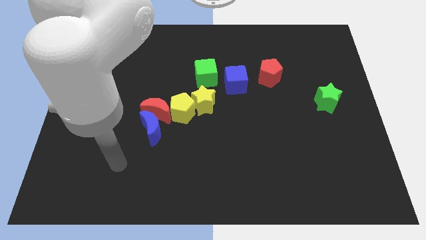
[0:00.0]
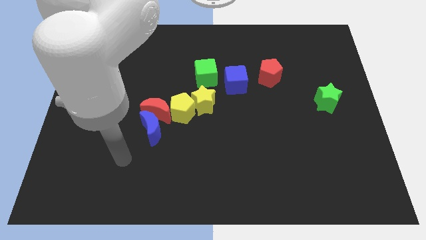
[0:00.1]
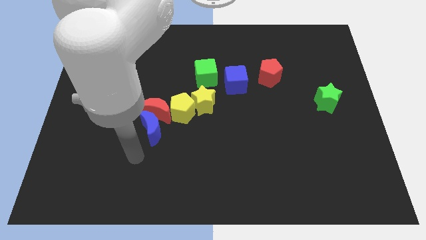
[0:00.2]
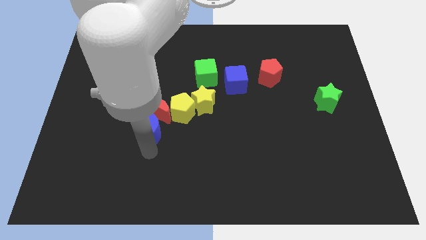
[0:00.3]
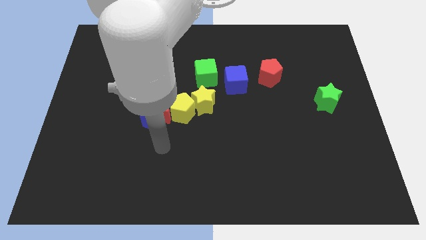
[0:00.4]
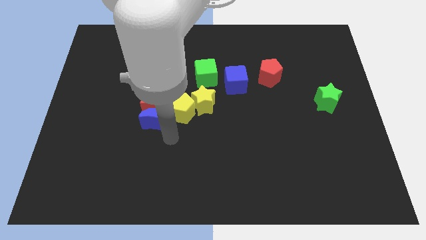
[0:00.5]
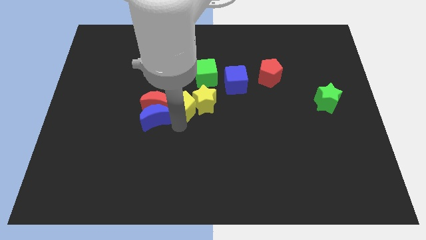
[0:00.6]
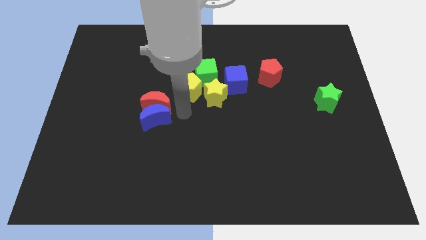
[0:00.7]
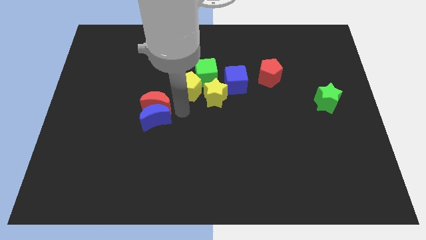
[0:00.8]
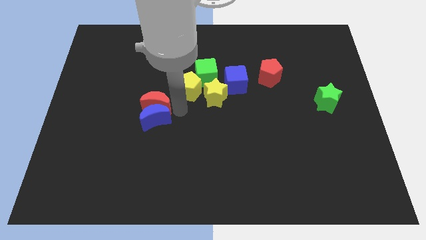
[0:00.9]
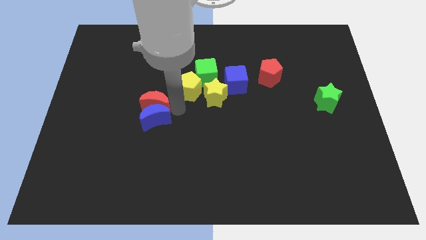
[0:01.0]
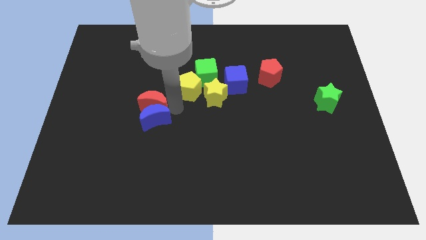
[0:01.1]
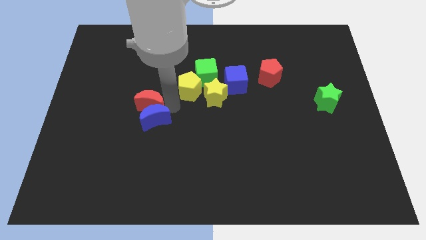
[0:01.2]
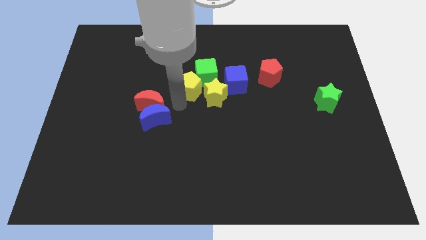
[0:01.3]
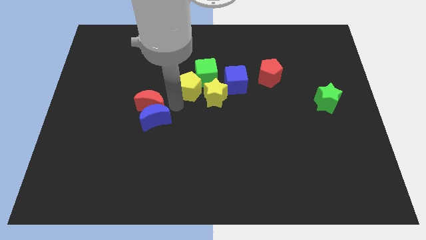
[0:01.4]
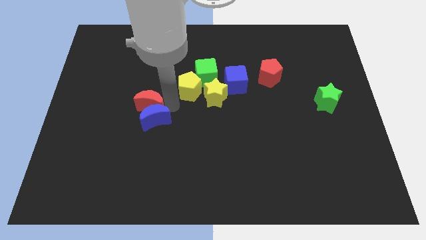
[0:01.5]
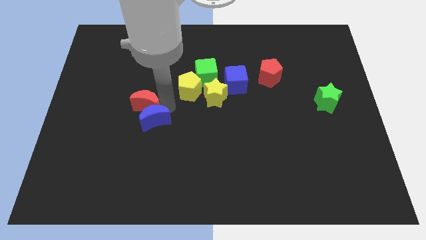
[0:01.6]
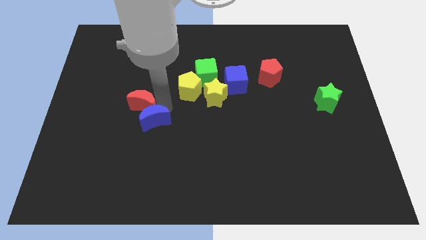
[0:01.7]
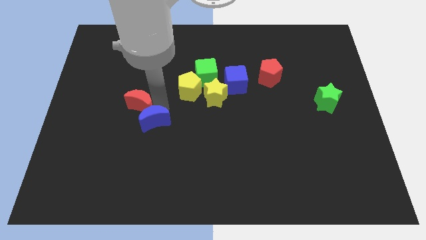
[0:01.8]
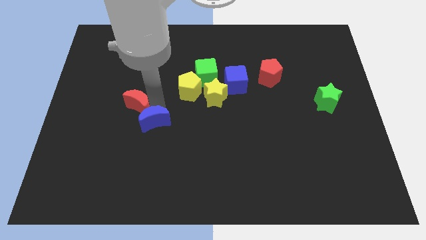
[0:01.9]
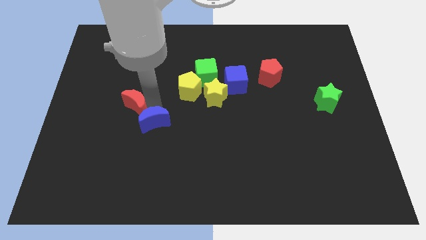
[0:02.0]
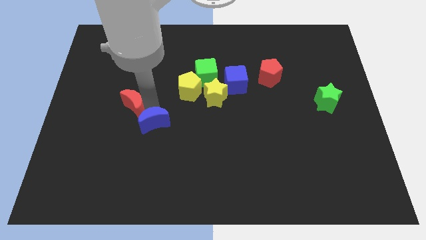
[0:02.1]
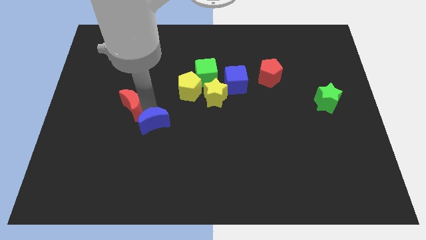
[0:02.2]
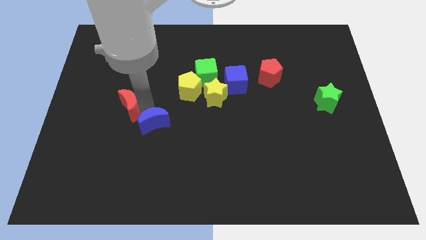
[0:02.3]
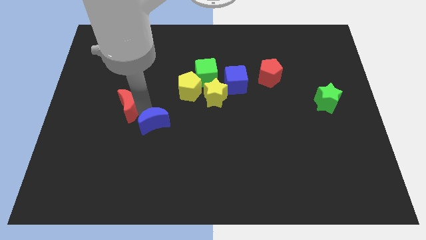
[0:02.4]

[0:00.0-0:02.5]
separate the red moon from the blue moon and yellow pentagon

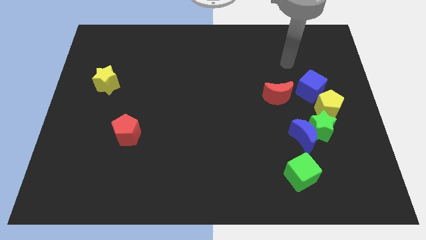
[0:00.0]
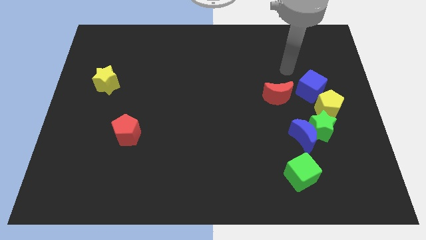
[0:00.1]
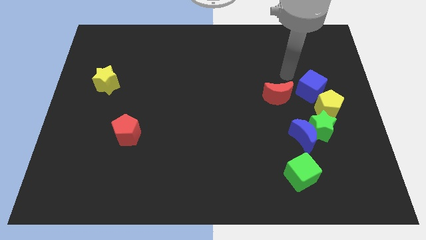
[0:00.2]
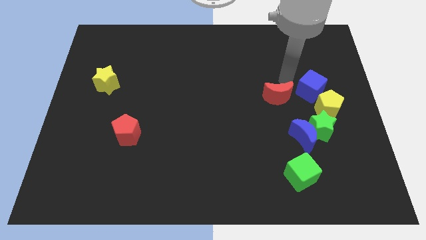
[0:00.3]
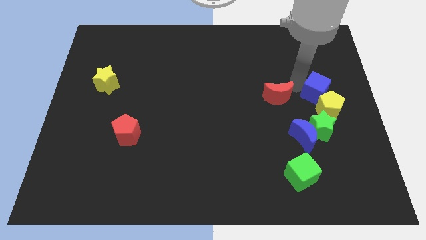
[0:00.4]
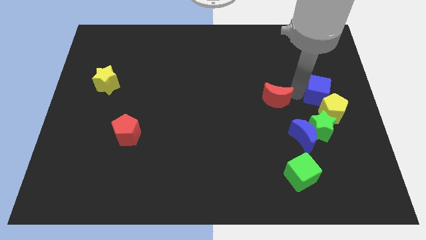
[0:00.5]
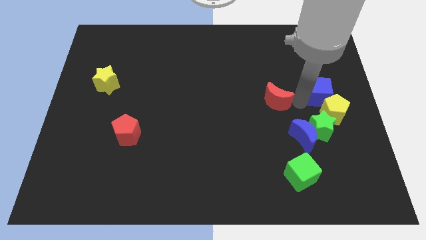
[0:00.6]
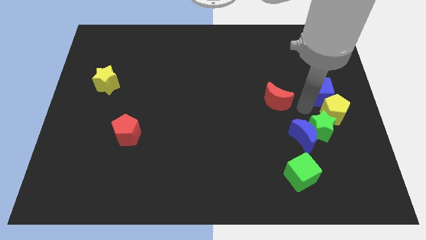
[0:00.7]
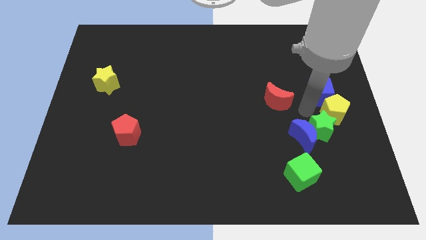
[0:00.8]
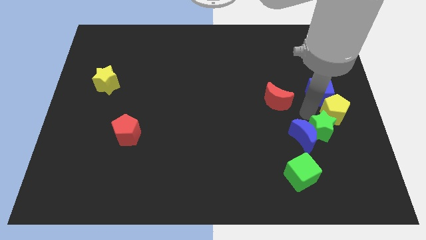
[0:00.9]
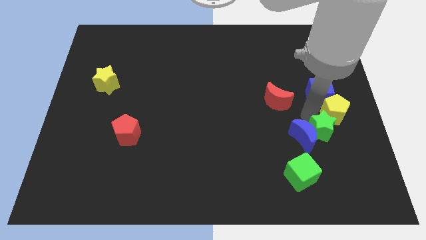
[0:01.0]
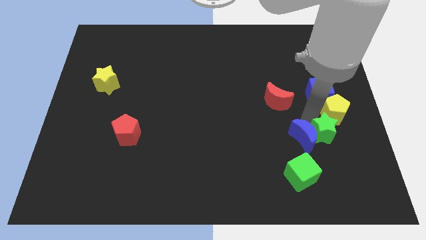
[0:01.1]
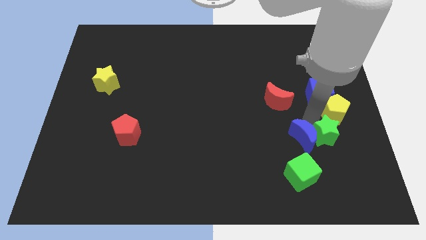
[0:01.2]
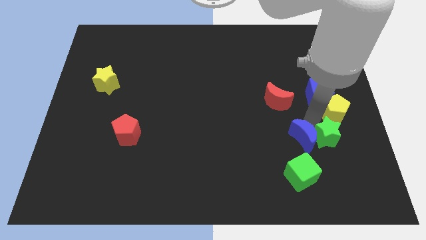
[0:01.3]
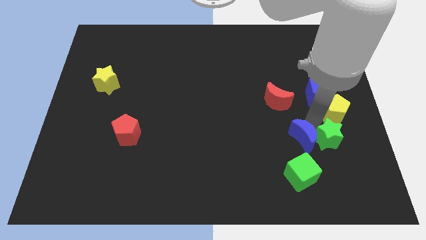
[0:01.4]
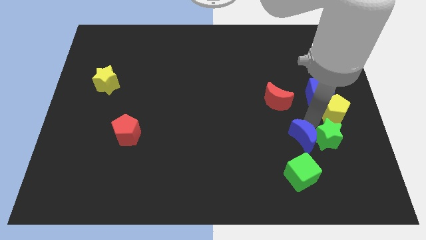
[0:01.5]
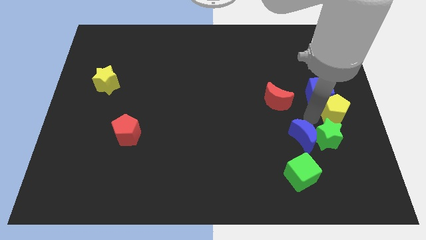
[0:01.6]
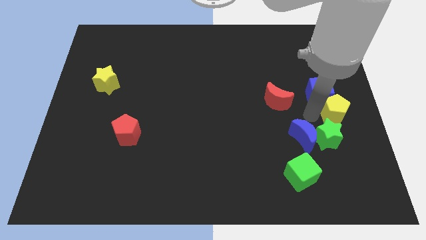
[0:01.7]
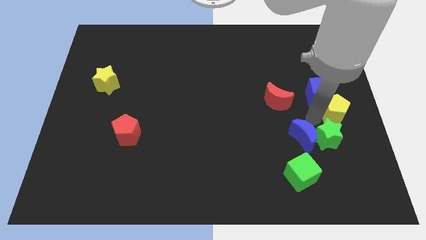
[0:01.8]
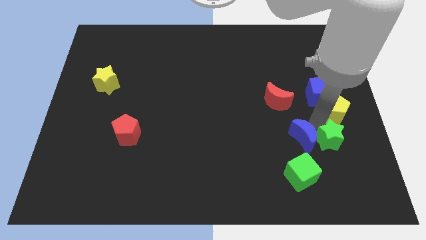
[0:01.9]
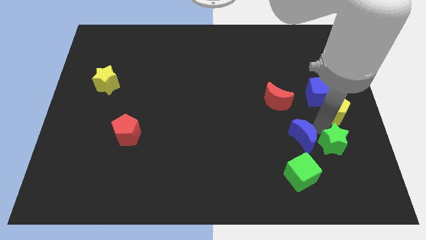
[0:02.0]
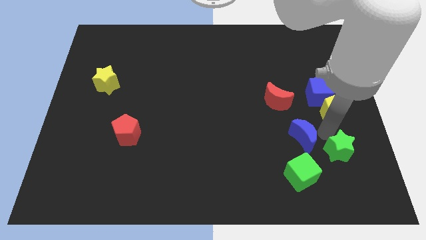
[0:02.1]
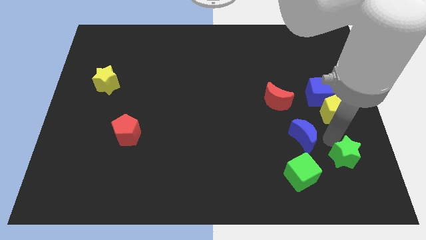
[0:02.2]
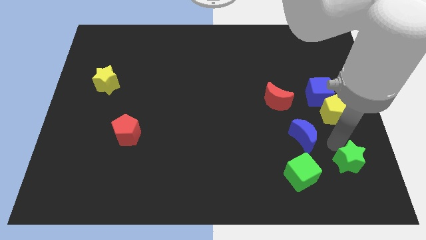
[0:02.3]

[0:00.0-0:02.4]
pull the green star apart from the blue moon and yellow pentagon

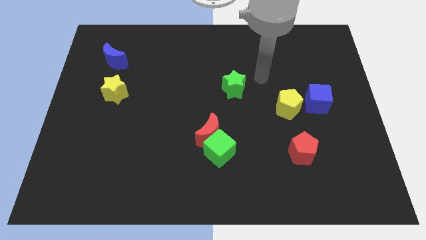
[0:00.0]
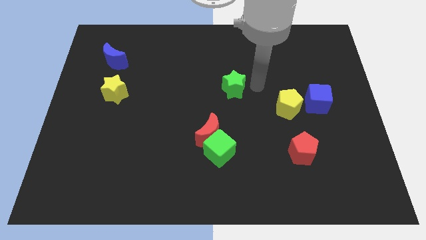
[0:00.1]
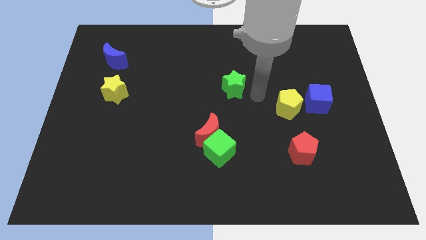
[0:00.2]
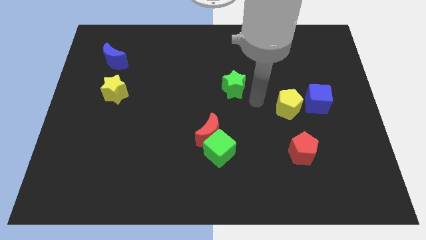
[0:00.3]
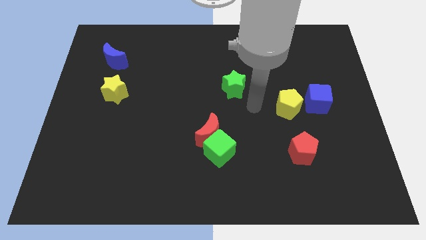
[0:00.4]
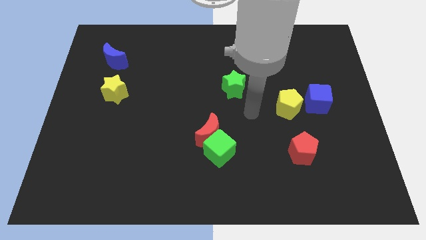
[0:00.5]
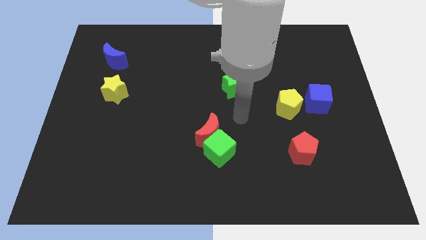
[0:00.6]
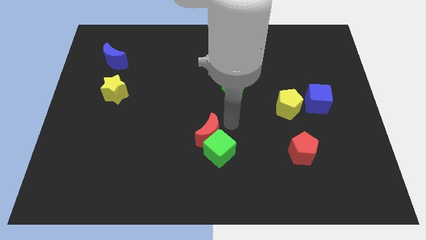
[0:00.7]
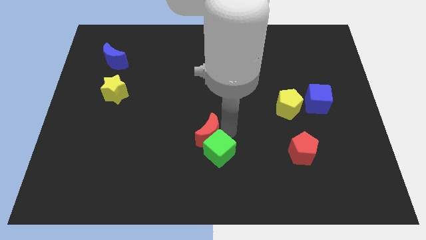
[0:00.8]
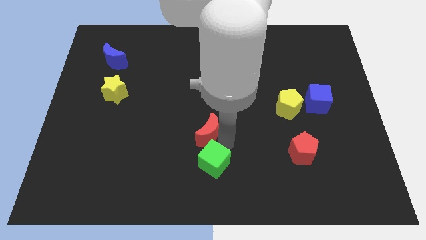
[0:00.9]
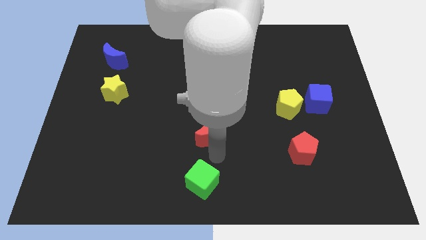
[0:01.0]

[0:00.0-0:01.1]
separate the red moon from the green cube

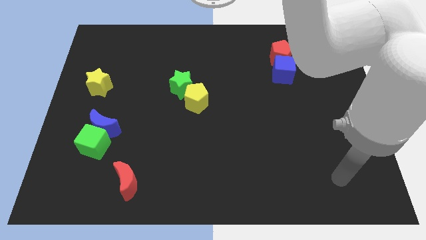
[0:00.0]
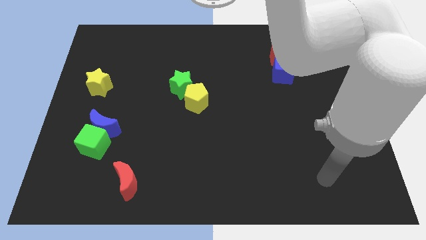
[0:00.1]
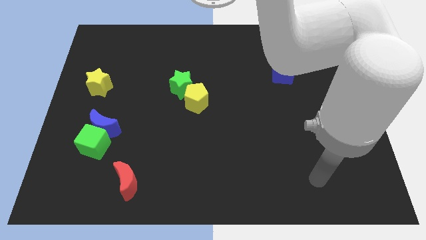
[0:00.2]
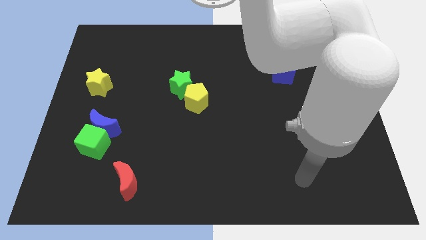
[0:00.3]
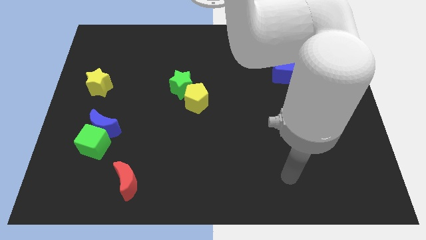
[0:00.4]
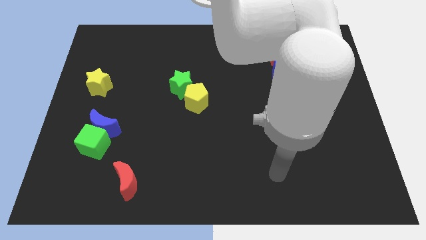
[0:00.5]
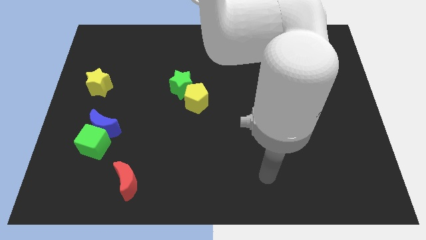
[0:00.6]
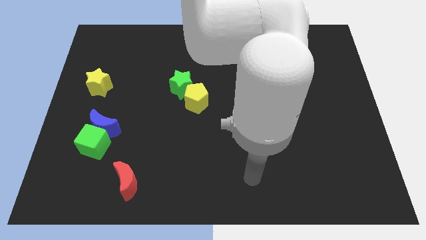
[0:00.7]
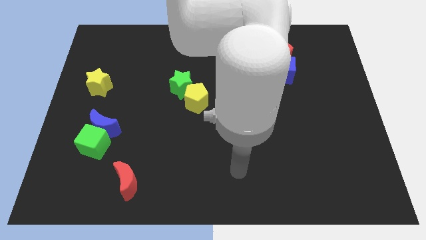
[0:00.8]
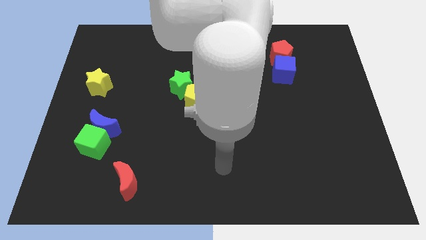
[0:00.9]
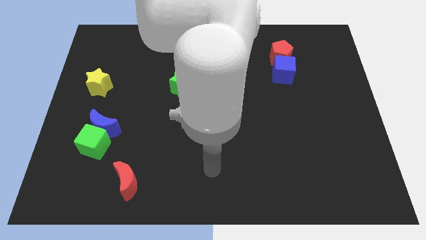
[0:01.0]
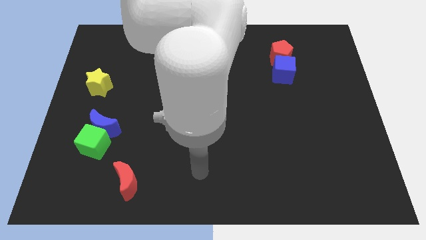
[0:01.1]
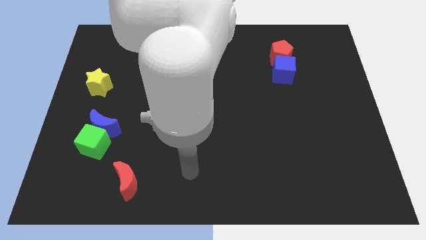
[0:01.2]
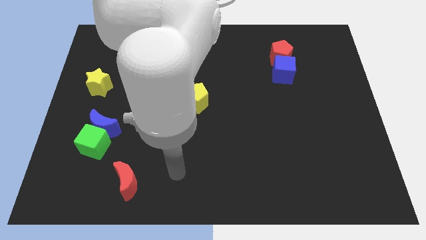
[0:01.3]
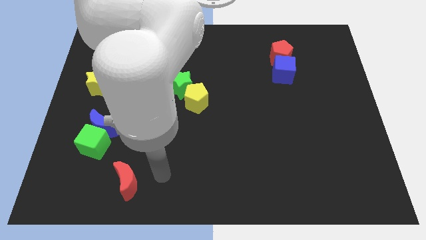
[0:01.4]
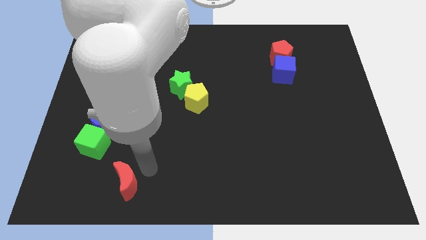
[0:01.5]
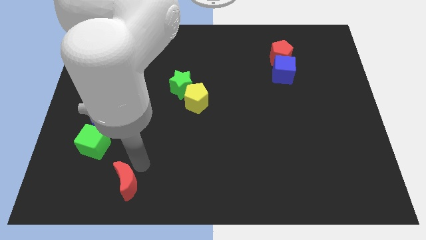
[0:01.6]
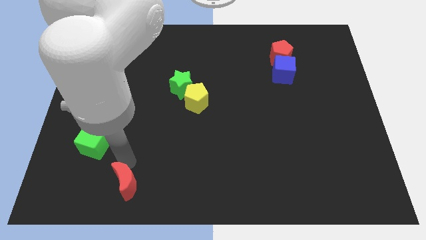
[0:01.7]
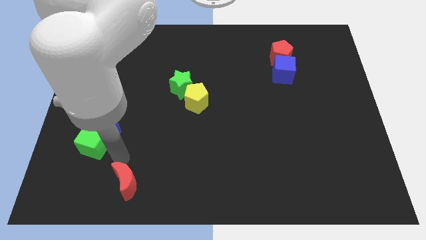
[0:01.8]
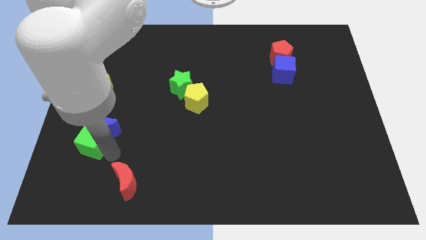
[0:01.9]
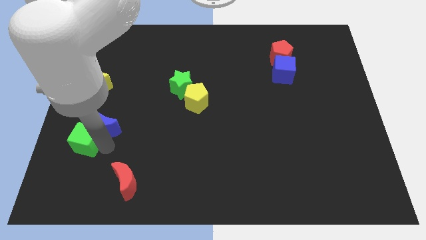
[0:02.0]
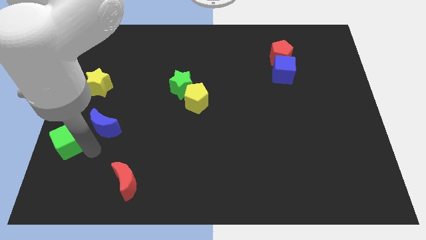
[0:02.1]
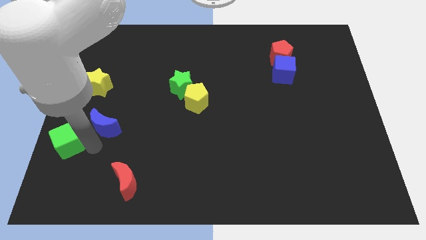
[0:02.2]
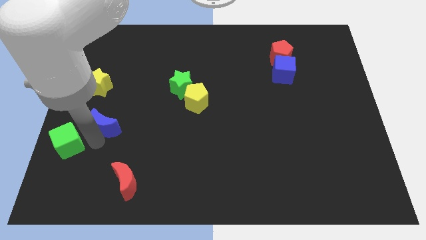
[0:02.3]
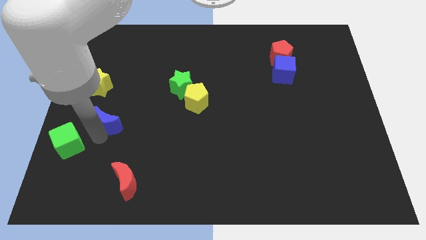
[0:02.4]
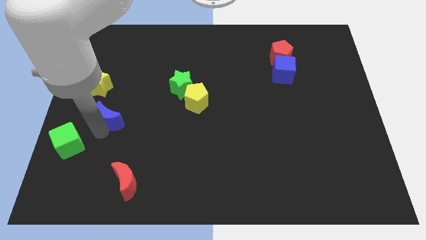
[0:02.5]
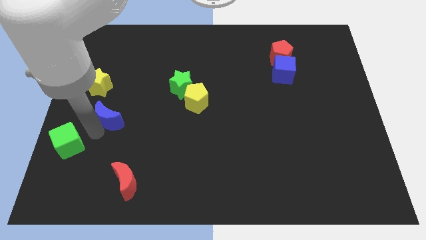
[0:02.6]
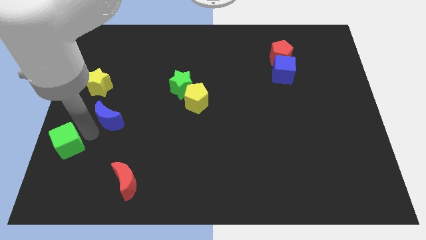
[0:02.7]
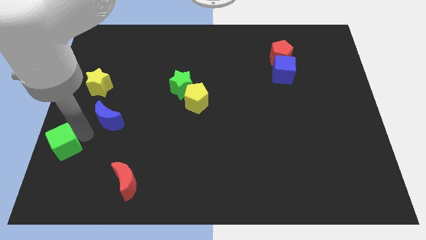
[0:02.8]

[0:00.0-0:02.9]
move the blue moon away from the green cube

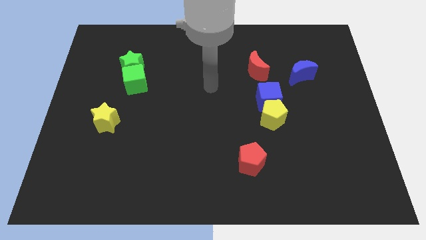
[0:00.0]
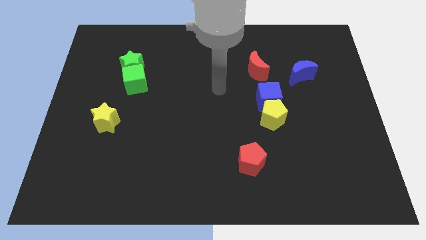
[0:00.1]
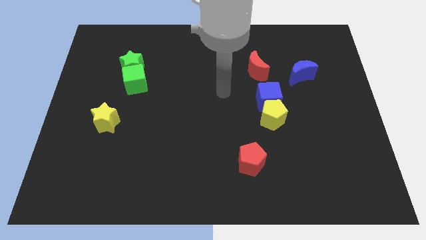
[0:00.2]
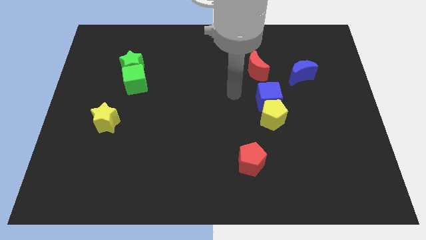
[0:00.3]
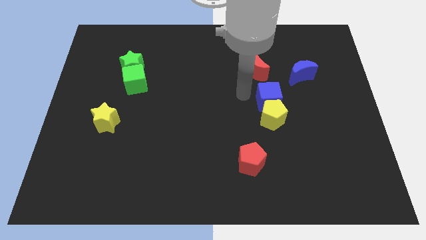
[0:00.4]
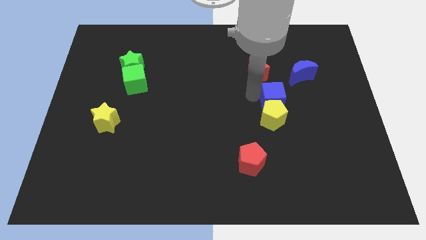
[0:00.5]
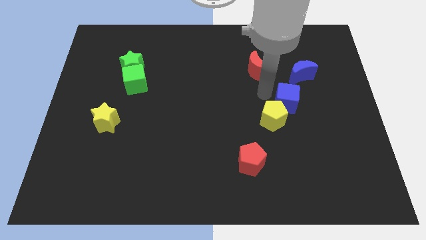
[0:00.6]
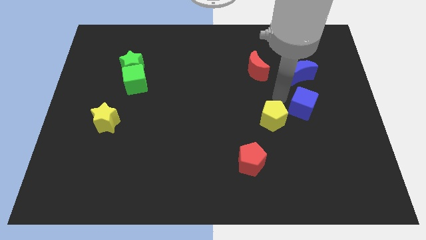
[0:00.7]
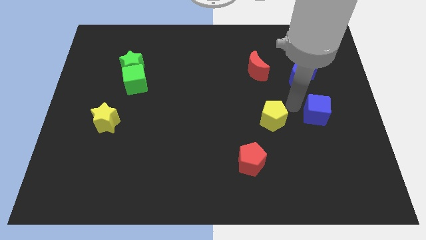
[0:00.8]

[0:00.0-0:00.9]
pull the yellow pentagon apart from the blue cube
